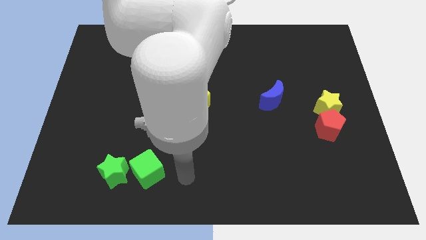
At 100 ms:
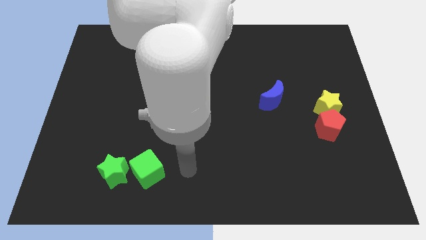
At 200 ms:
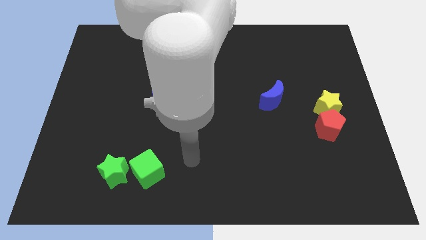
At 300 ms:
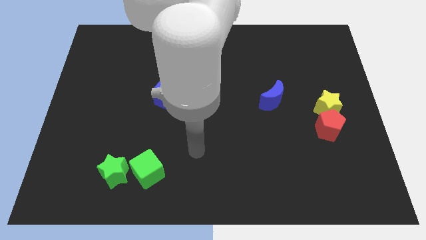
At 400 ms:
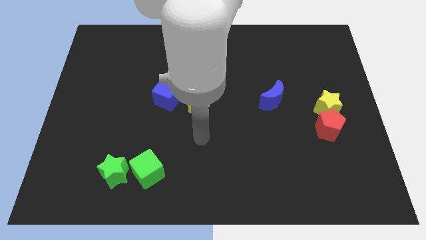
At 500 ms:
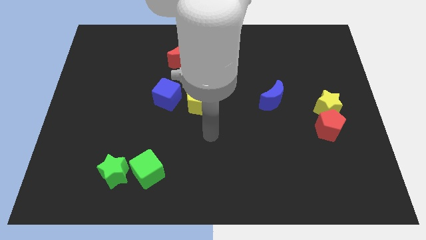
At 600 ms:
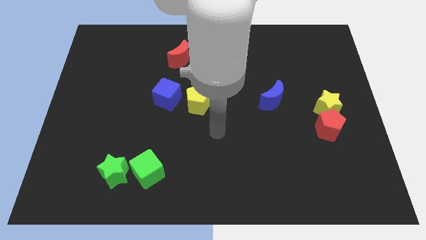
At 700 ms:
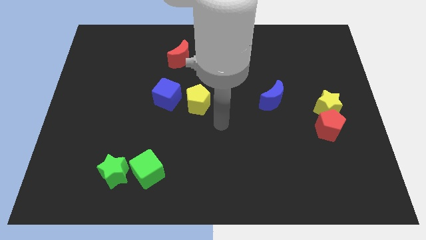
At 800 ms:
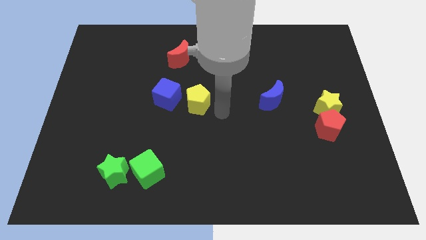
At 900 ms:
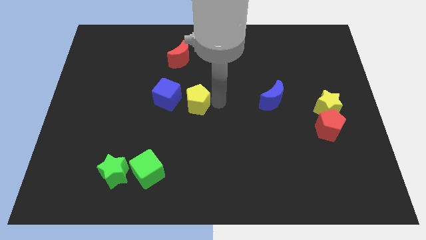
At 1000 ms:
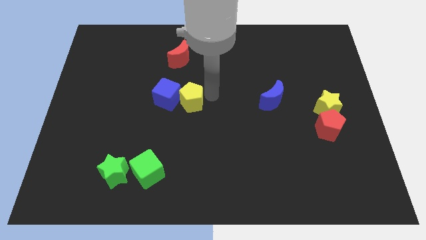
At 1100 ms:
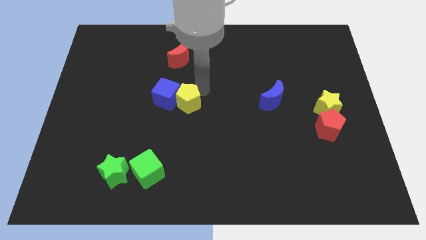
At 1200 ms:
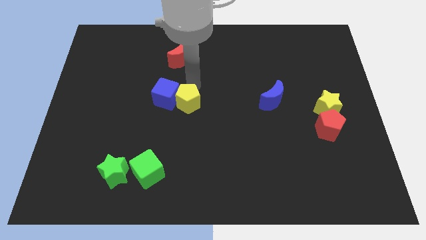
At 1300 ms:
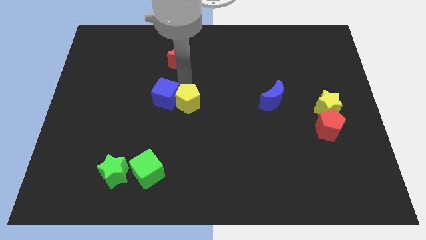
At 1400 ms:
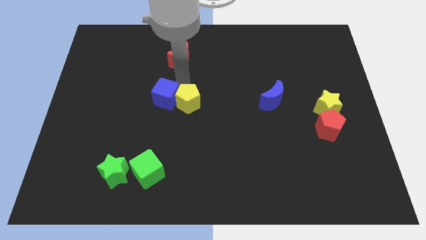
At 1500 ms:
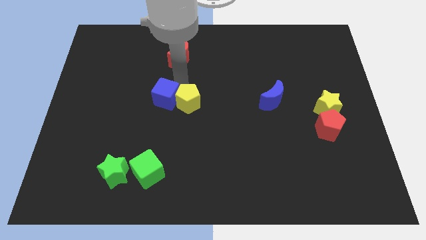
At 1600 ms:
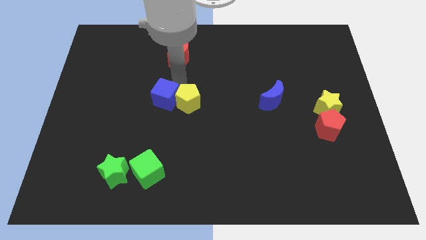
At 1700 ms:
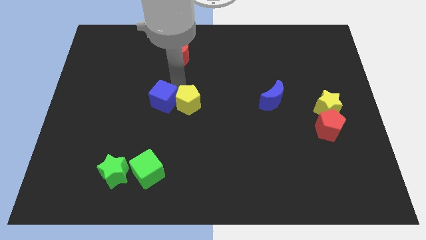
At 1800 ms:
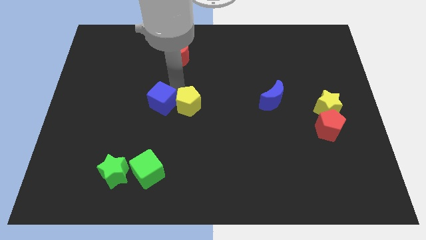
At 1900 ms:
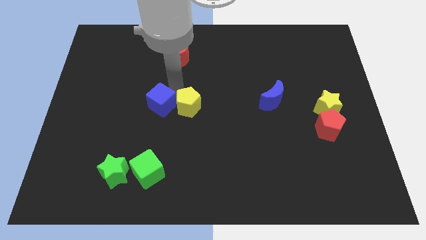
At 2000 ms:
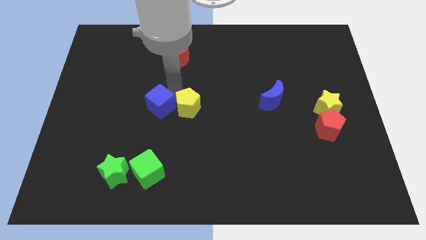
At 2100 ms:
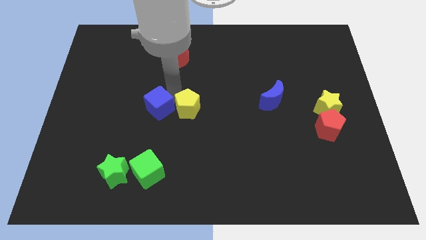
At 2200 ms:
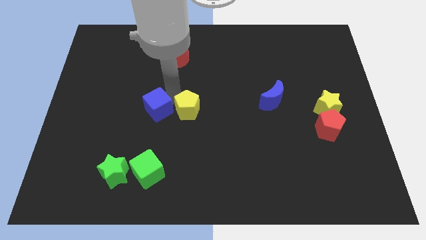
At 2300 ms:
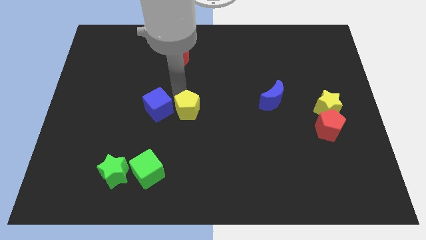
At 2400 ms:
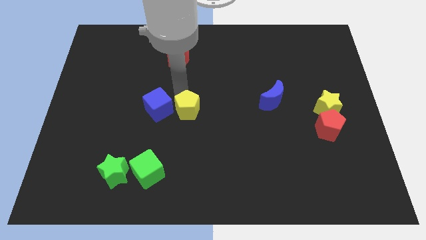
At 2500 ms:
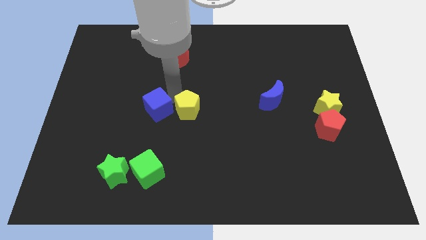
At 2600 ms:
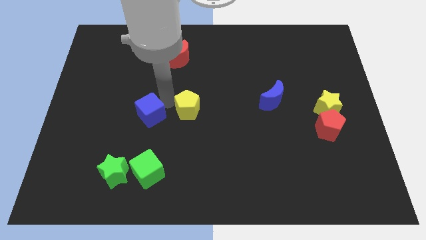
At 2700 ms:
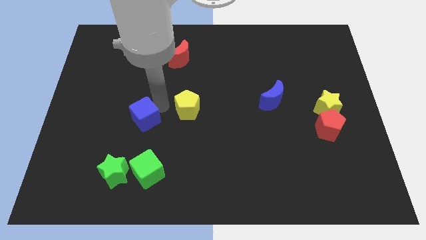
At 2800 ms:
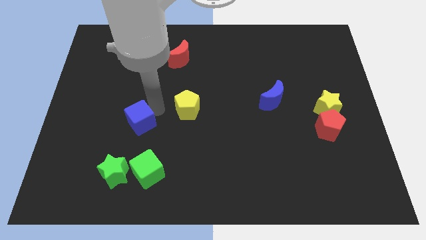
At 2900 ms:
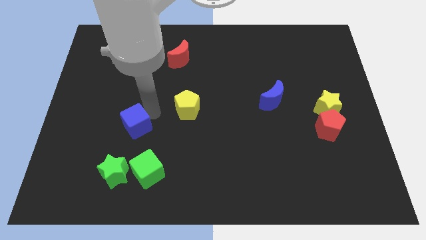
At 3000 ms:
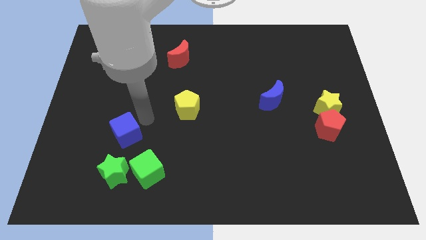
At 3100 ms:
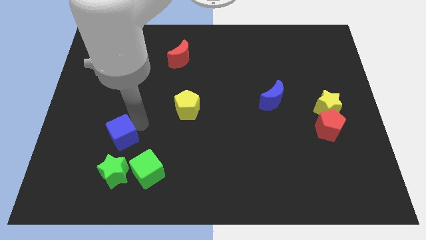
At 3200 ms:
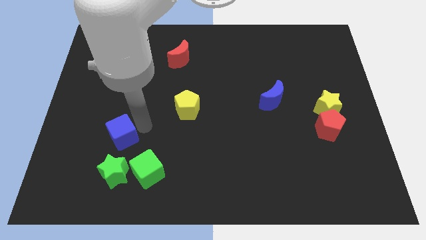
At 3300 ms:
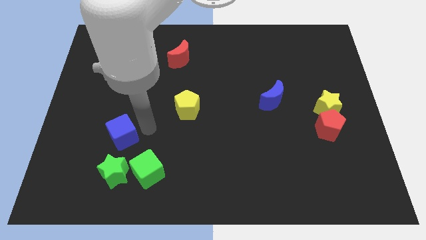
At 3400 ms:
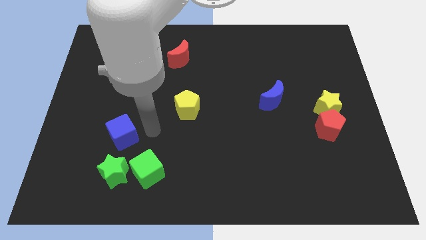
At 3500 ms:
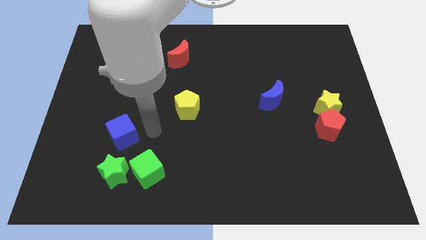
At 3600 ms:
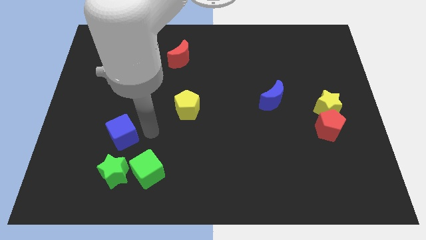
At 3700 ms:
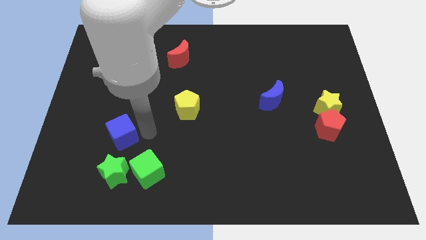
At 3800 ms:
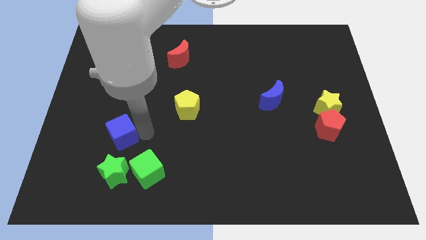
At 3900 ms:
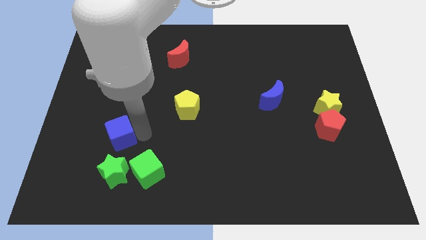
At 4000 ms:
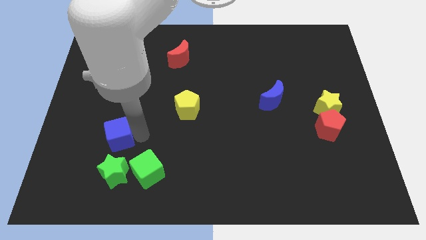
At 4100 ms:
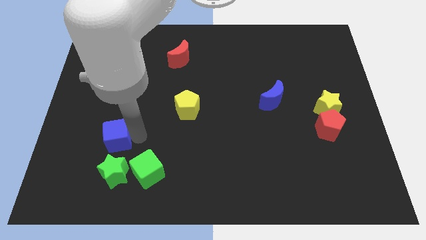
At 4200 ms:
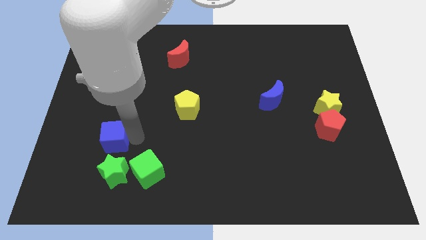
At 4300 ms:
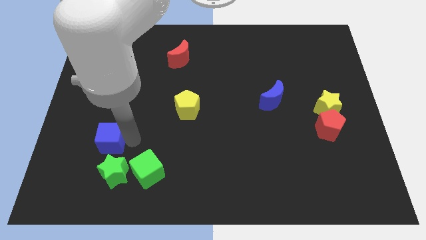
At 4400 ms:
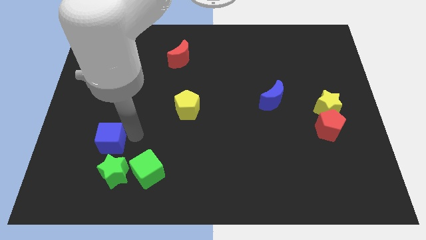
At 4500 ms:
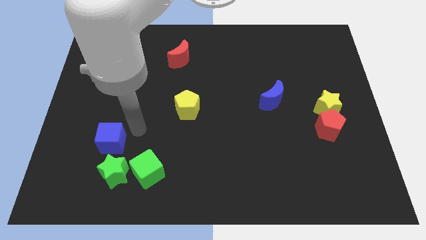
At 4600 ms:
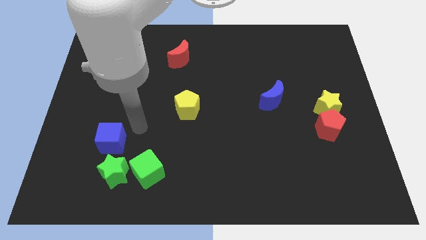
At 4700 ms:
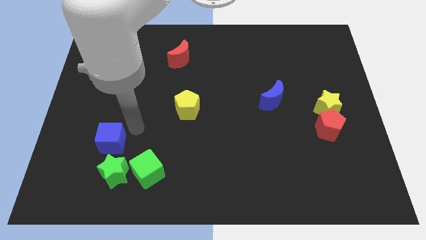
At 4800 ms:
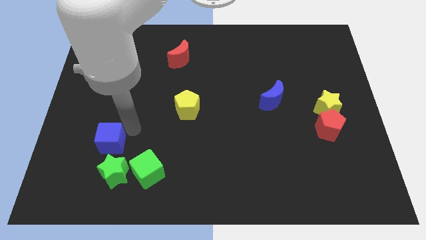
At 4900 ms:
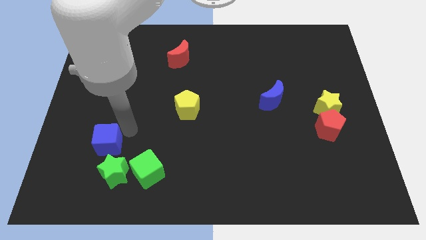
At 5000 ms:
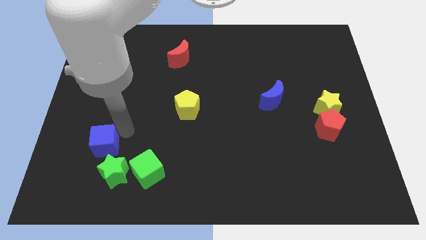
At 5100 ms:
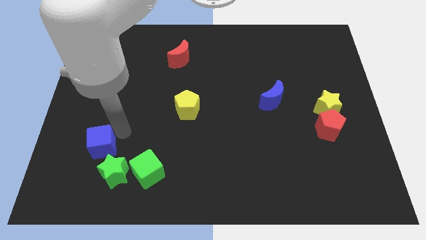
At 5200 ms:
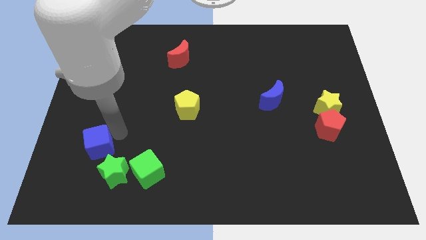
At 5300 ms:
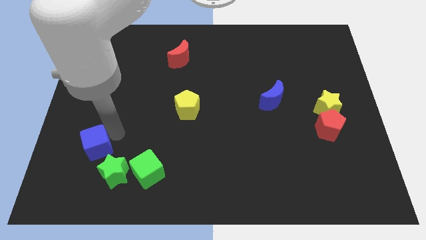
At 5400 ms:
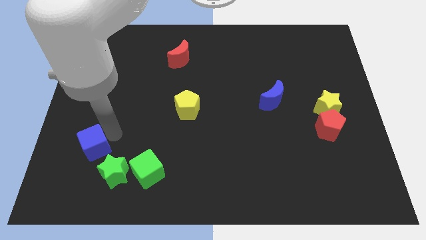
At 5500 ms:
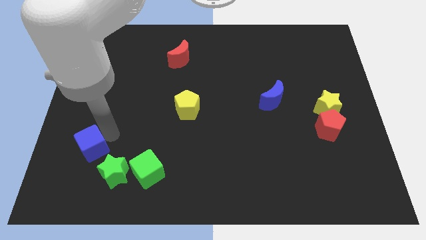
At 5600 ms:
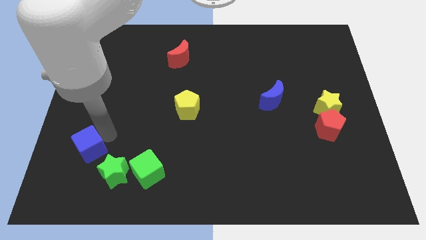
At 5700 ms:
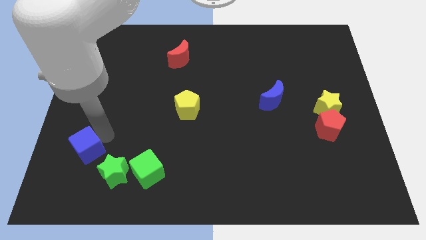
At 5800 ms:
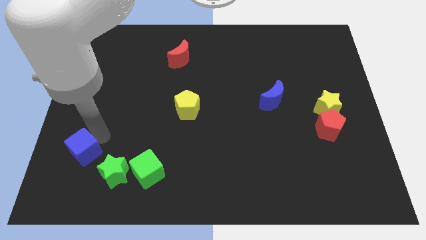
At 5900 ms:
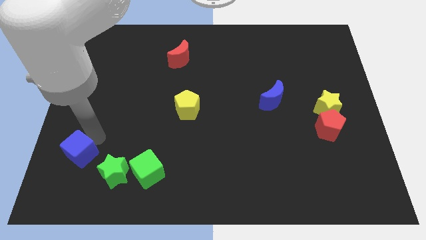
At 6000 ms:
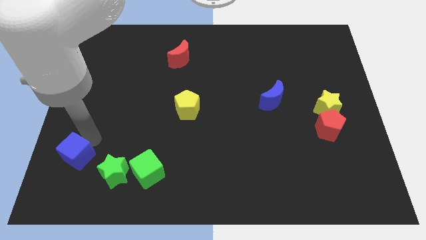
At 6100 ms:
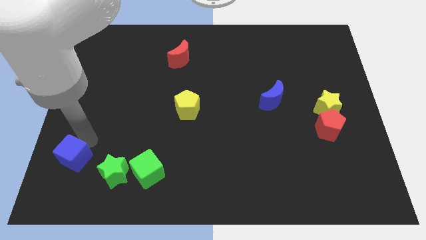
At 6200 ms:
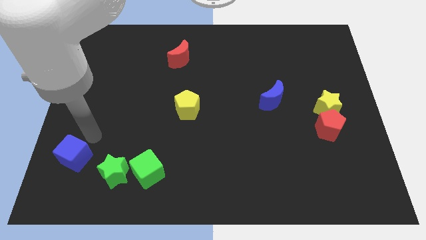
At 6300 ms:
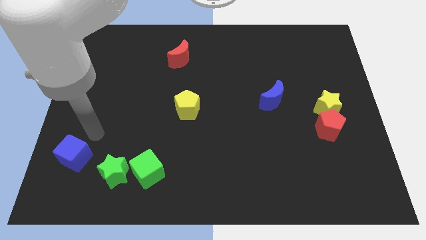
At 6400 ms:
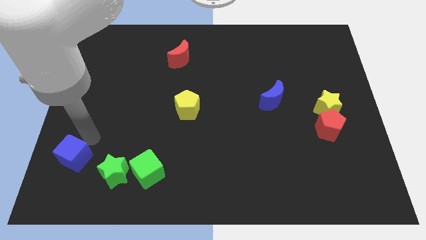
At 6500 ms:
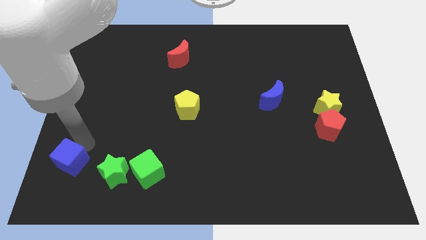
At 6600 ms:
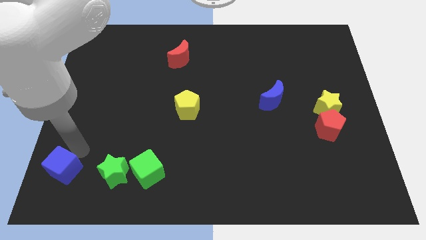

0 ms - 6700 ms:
put the blue cube to the bottom left of the board

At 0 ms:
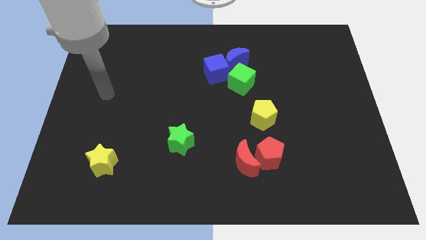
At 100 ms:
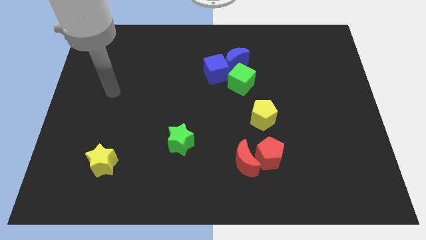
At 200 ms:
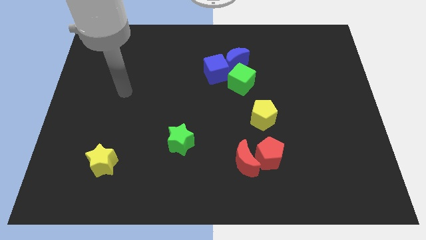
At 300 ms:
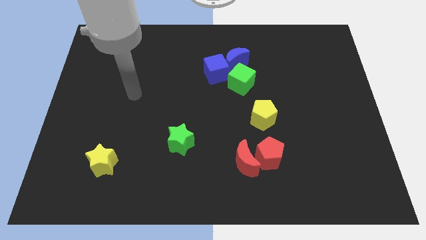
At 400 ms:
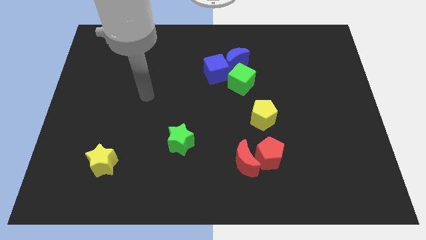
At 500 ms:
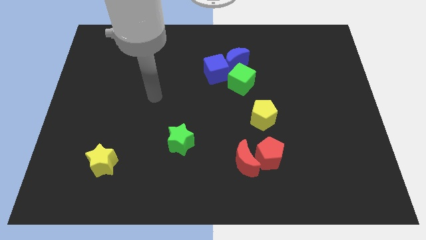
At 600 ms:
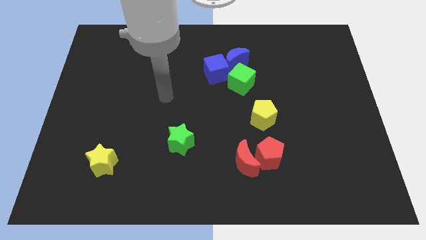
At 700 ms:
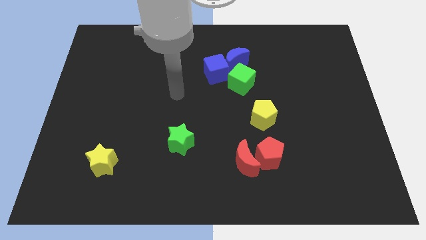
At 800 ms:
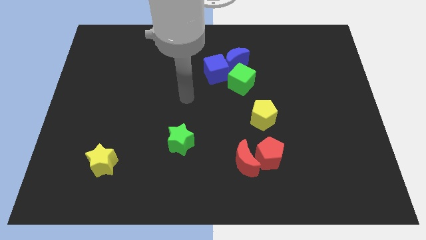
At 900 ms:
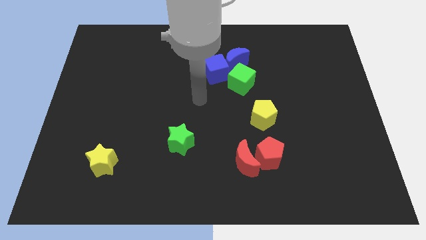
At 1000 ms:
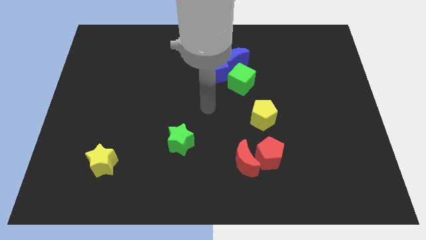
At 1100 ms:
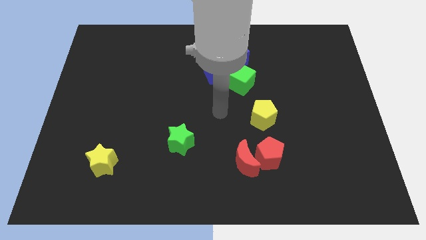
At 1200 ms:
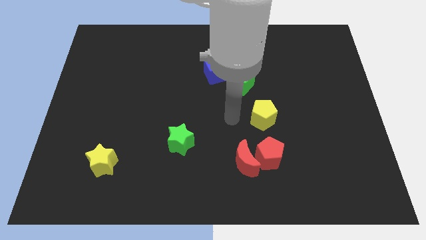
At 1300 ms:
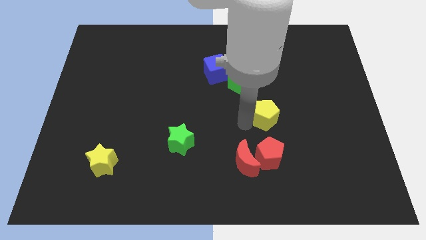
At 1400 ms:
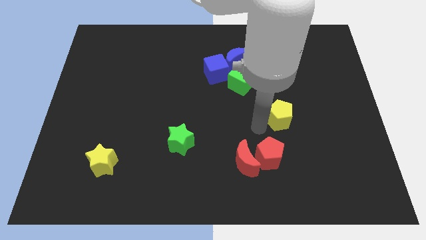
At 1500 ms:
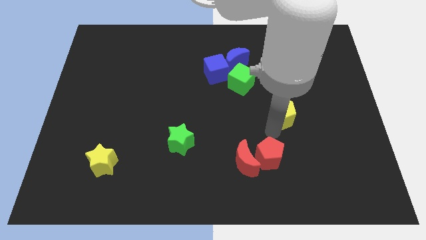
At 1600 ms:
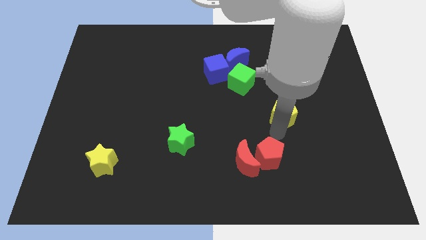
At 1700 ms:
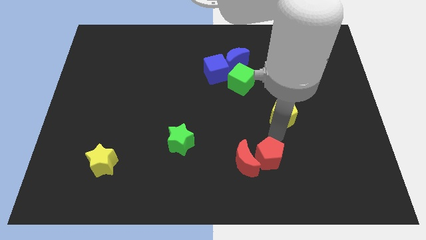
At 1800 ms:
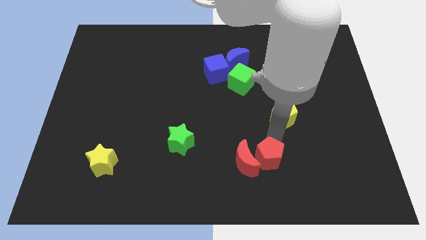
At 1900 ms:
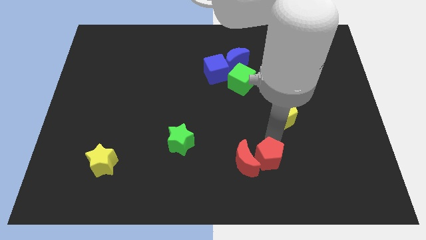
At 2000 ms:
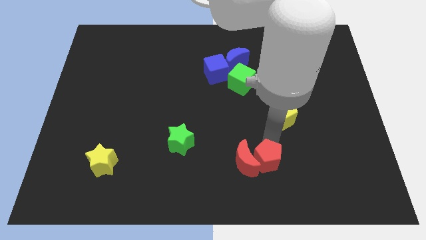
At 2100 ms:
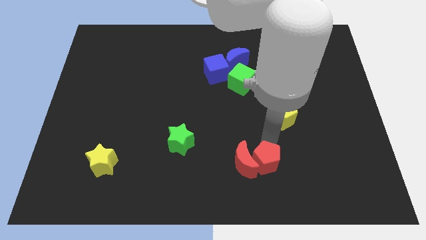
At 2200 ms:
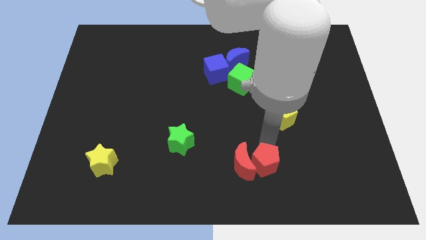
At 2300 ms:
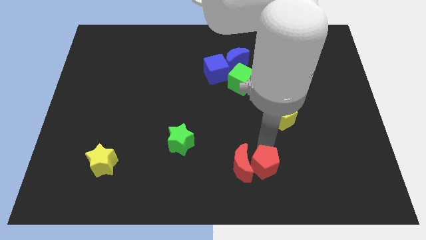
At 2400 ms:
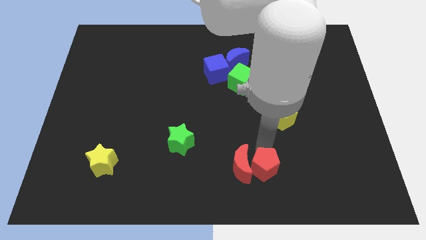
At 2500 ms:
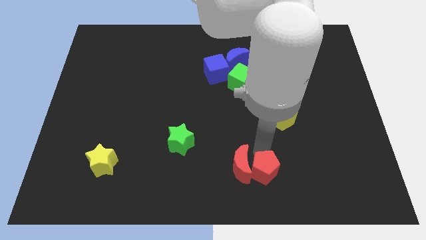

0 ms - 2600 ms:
slide the red pentagon to the bottom side
